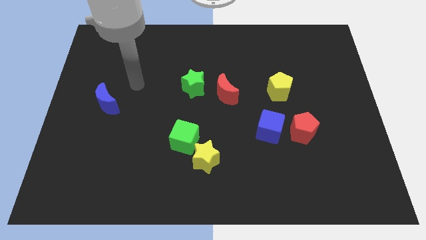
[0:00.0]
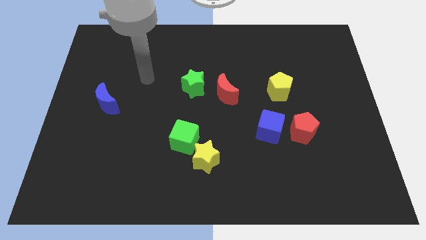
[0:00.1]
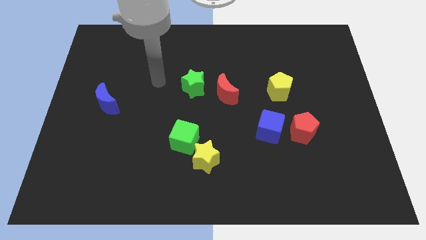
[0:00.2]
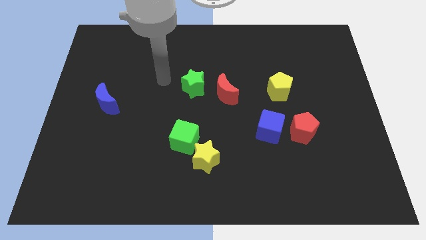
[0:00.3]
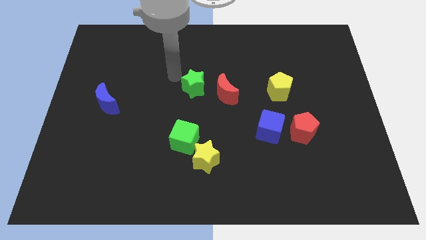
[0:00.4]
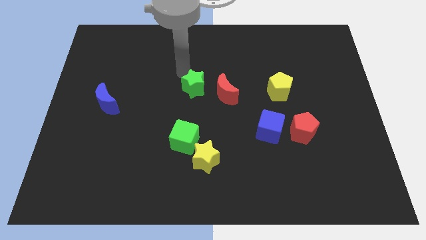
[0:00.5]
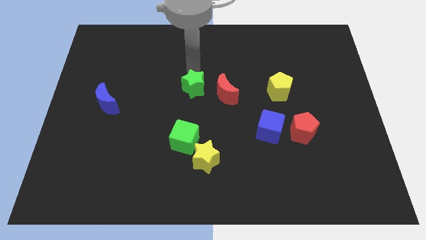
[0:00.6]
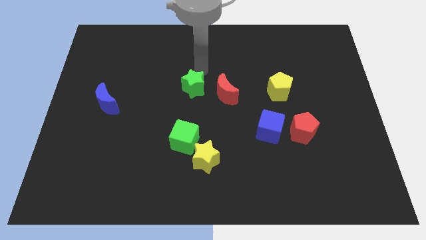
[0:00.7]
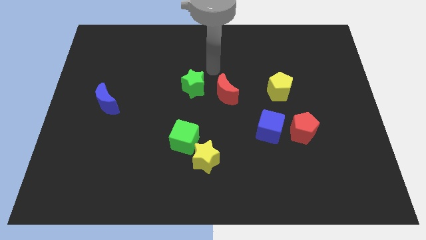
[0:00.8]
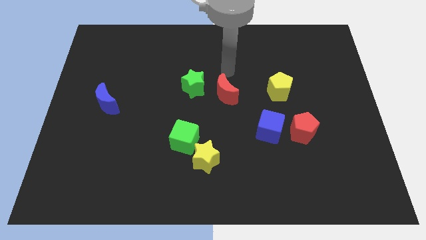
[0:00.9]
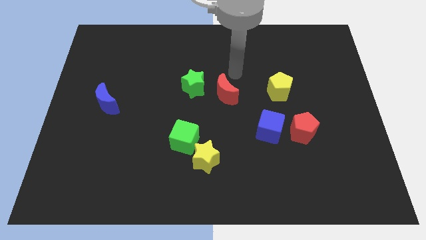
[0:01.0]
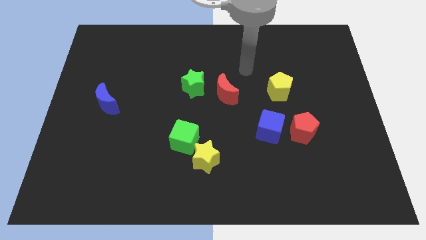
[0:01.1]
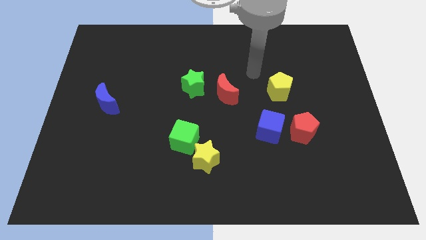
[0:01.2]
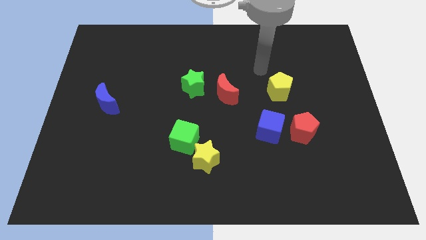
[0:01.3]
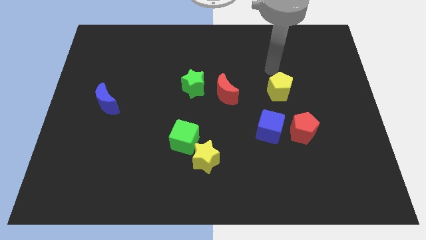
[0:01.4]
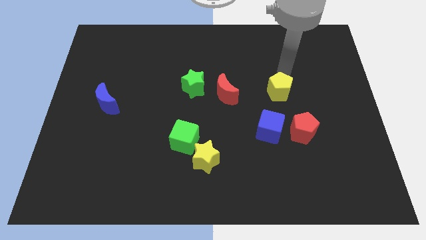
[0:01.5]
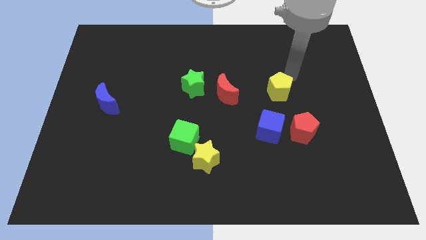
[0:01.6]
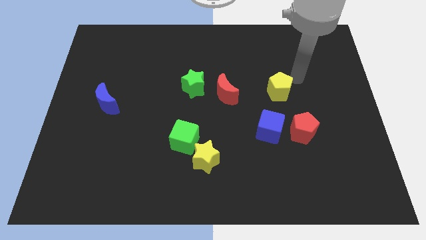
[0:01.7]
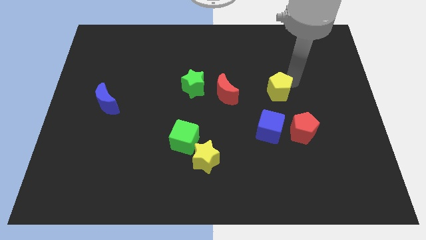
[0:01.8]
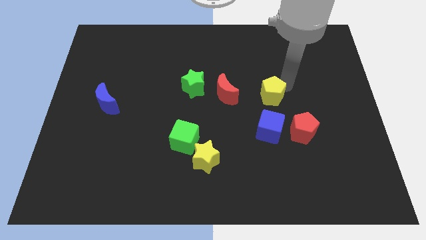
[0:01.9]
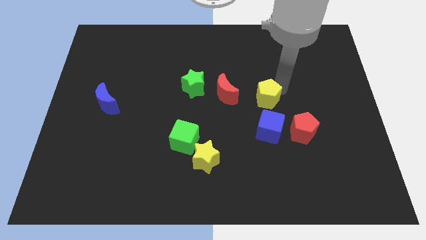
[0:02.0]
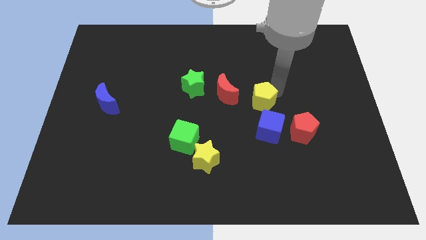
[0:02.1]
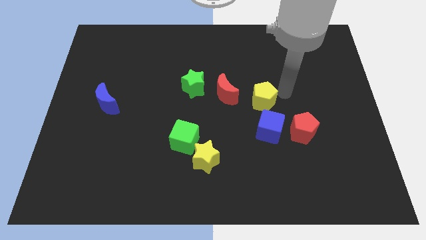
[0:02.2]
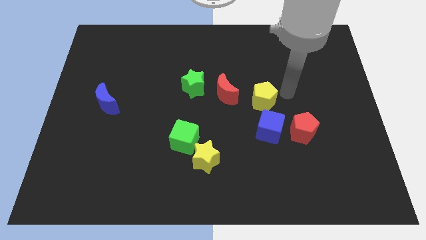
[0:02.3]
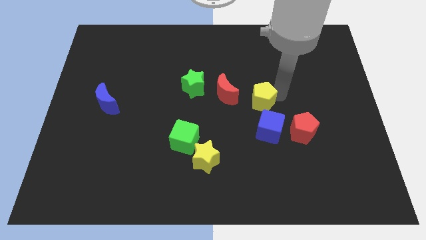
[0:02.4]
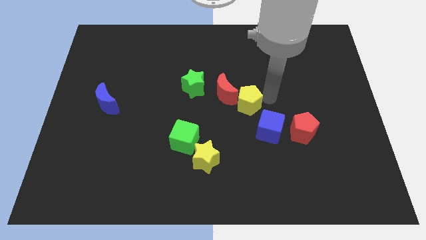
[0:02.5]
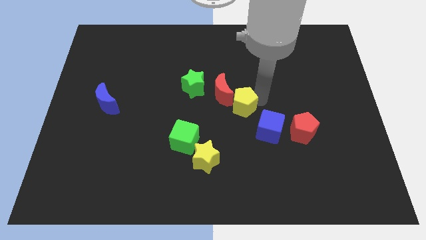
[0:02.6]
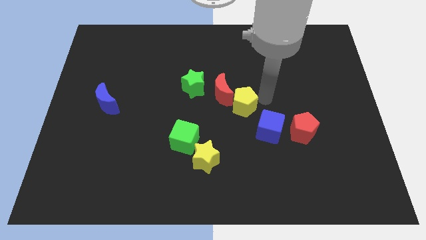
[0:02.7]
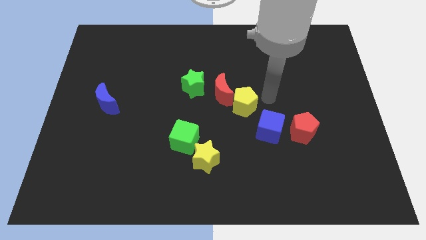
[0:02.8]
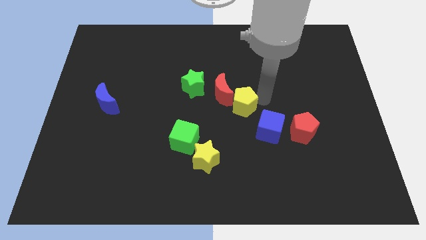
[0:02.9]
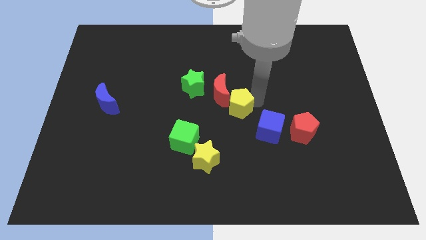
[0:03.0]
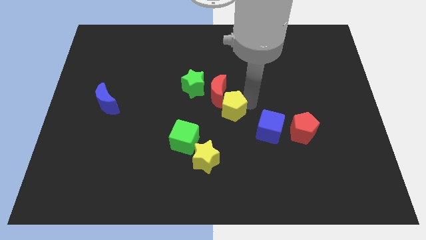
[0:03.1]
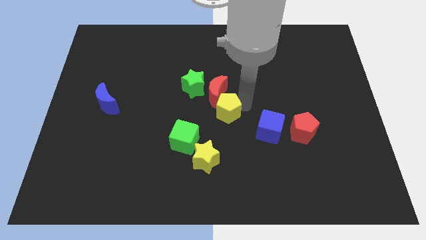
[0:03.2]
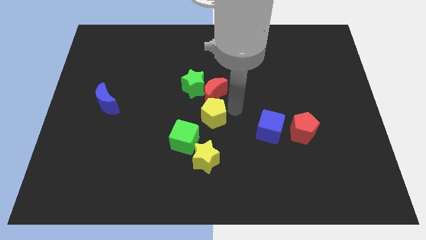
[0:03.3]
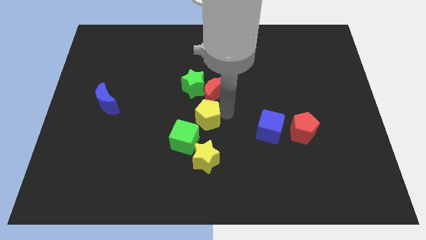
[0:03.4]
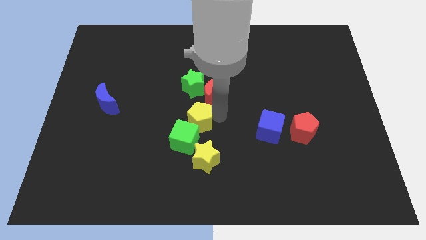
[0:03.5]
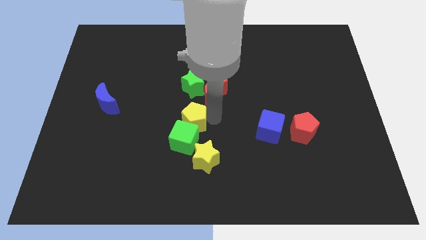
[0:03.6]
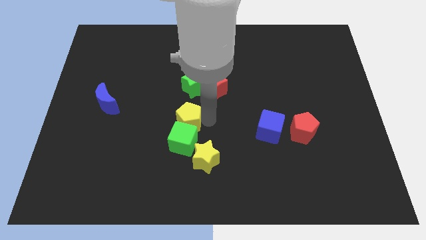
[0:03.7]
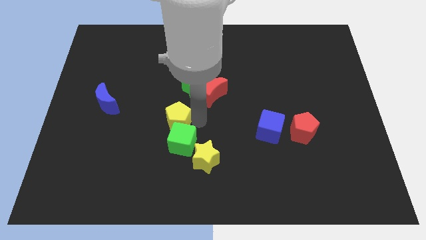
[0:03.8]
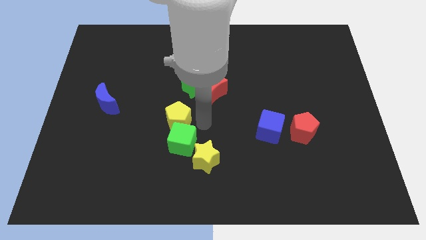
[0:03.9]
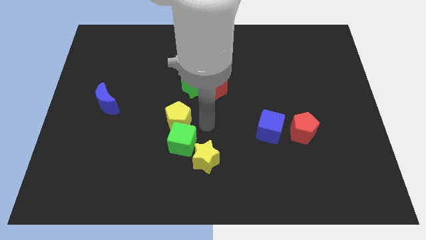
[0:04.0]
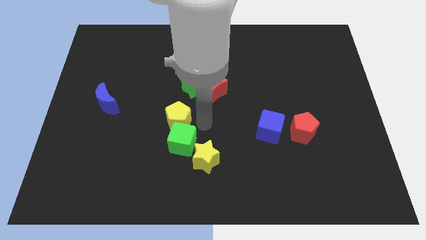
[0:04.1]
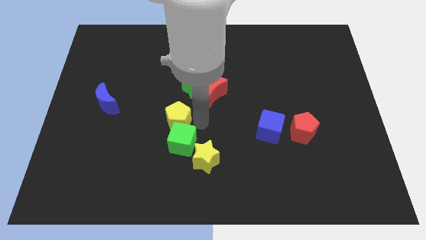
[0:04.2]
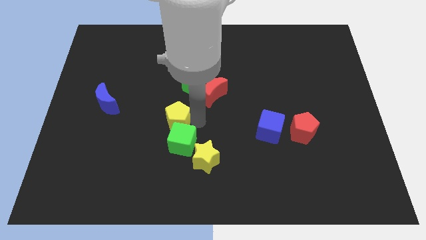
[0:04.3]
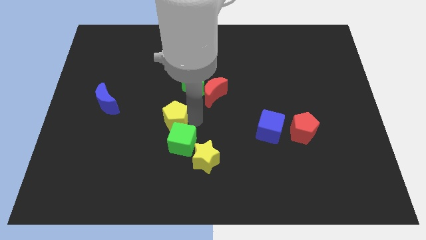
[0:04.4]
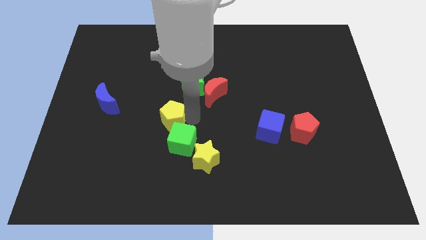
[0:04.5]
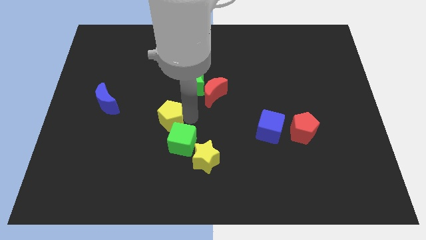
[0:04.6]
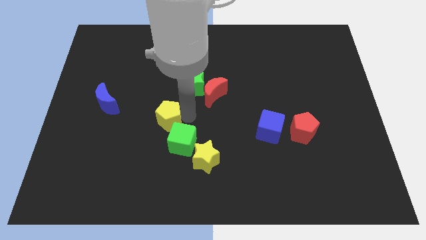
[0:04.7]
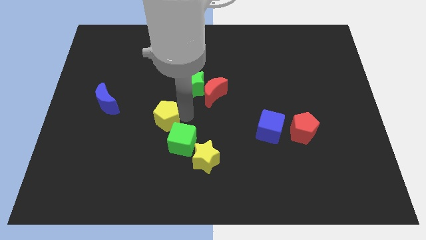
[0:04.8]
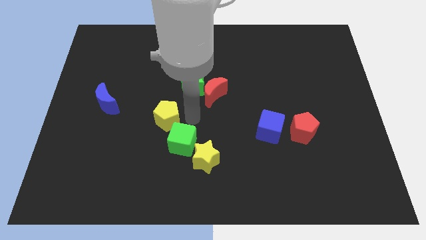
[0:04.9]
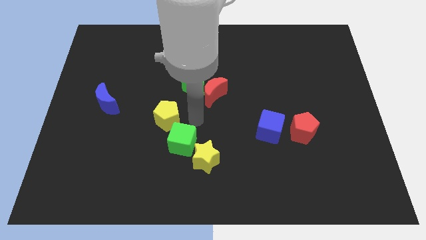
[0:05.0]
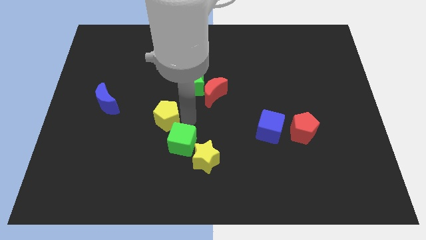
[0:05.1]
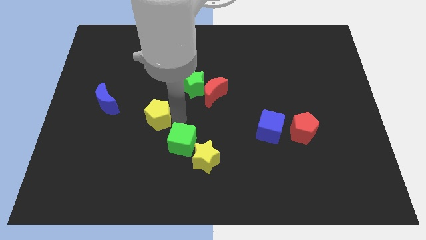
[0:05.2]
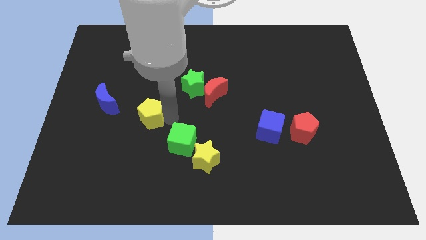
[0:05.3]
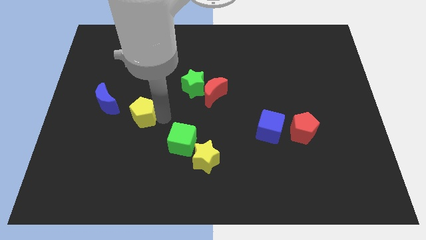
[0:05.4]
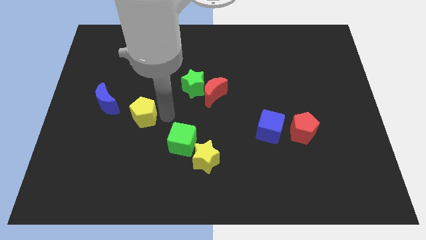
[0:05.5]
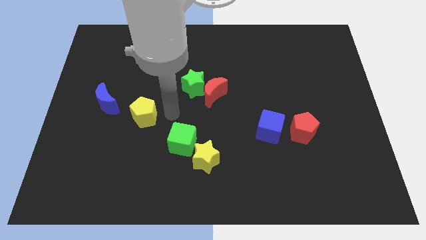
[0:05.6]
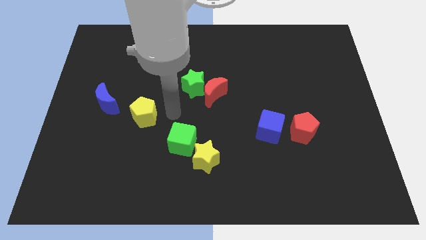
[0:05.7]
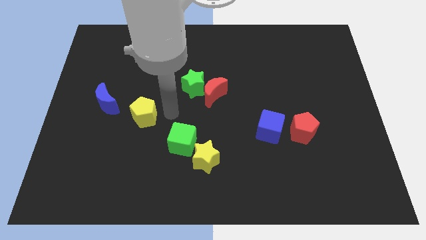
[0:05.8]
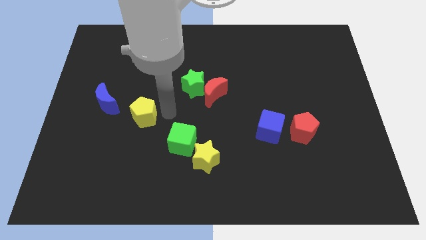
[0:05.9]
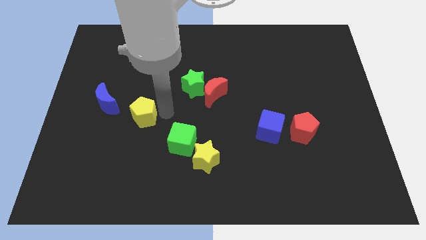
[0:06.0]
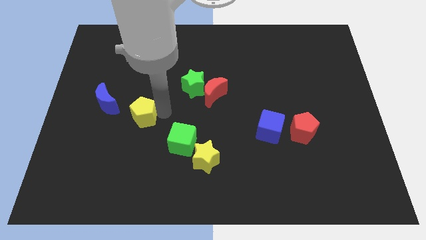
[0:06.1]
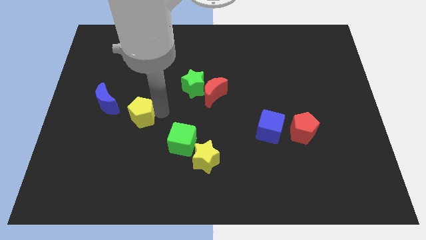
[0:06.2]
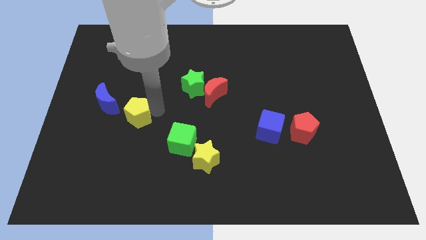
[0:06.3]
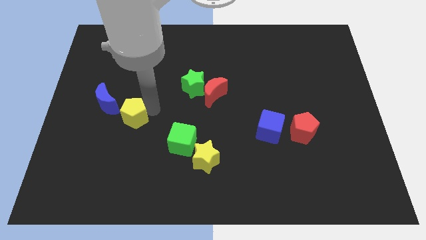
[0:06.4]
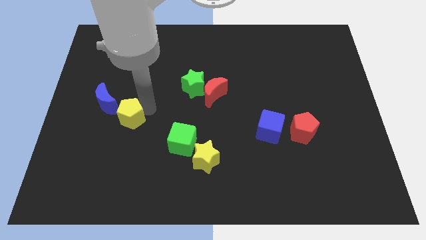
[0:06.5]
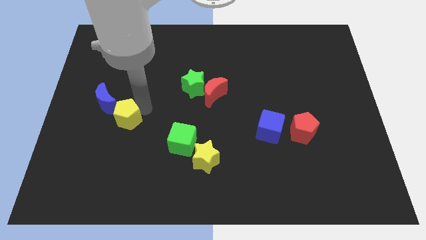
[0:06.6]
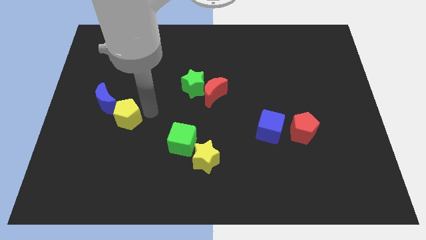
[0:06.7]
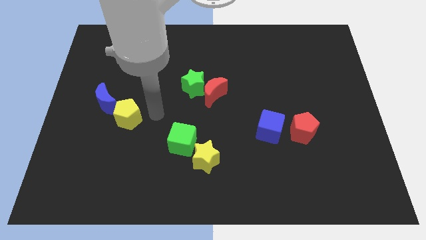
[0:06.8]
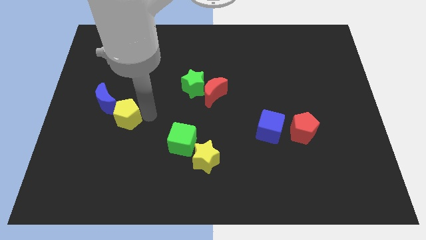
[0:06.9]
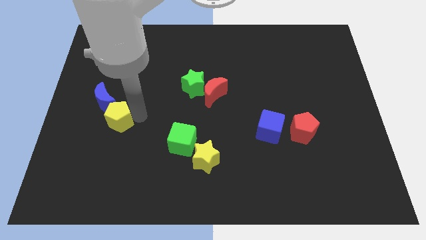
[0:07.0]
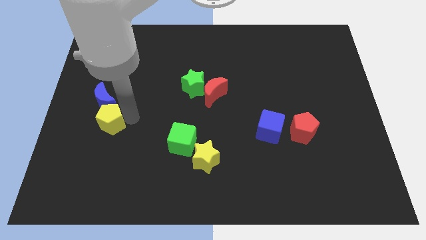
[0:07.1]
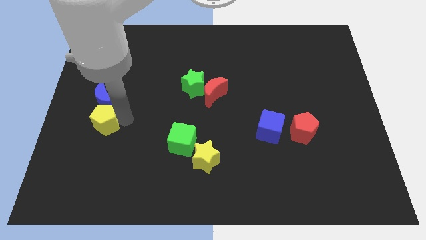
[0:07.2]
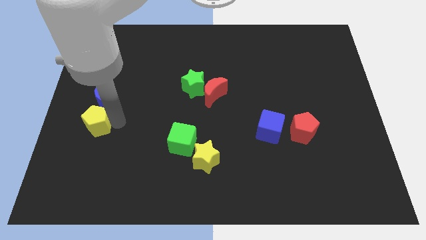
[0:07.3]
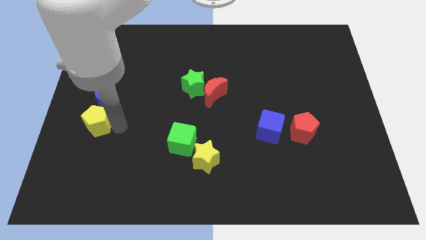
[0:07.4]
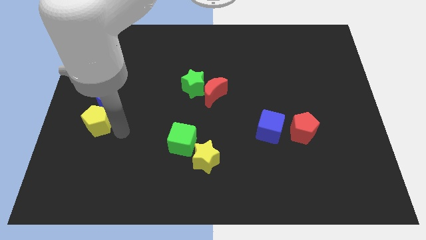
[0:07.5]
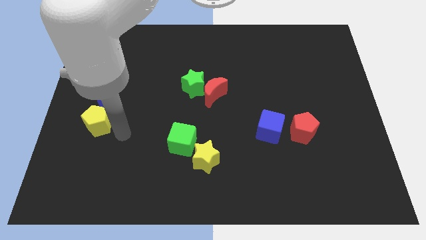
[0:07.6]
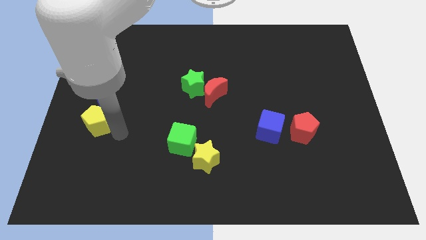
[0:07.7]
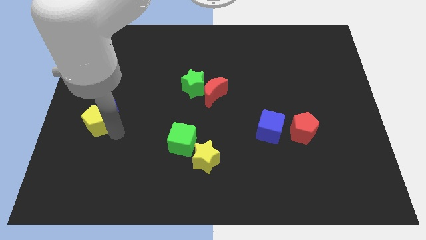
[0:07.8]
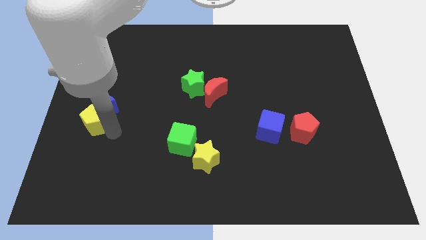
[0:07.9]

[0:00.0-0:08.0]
put the yellow pentagon to the left side
